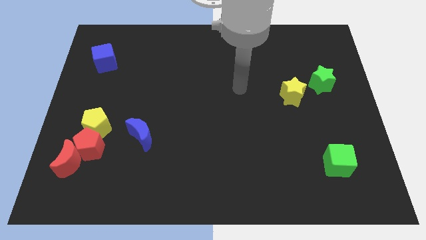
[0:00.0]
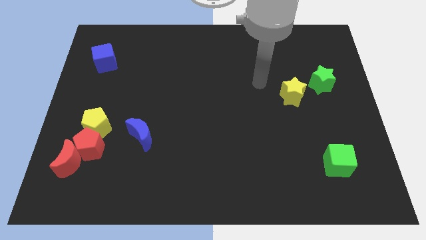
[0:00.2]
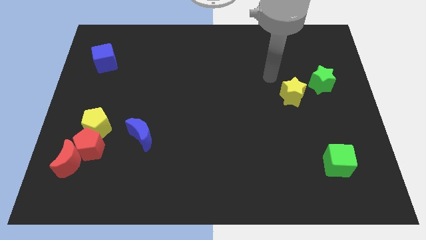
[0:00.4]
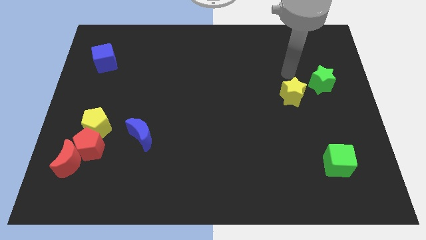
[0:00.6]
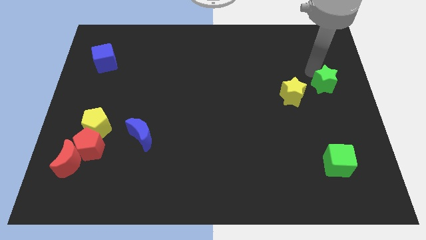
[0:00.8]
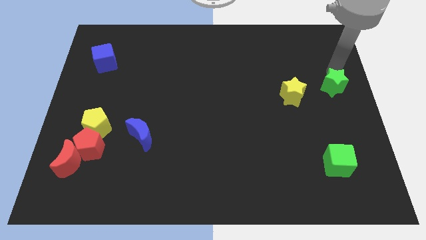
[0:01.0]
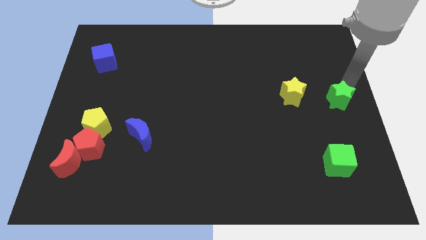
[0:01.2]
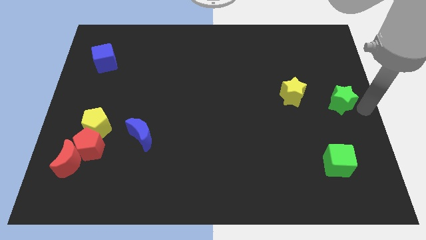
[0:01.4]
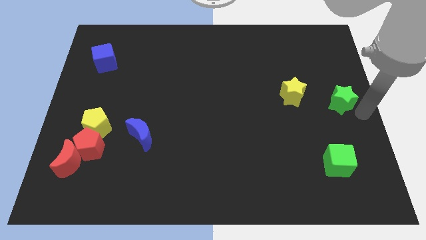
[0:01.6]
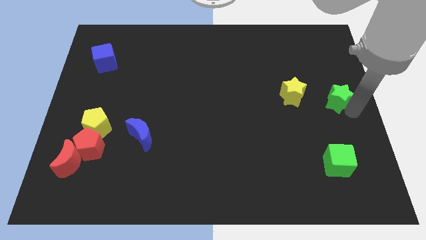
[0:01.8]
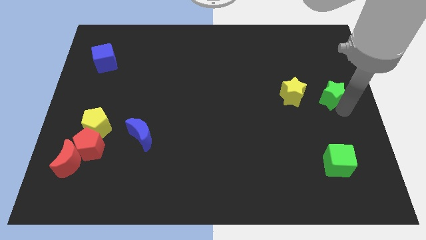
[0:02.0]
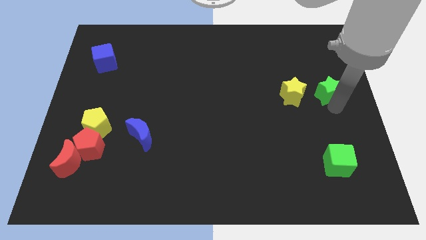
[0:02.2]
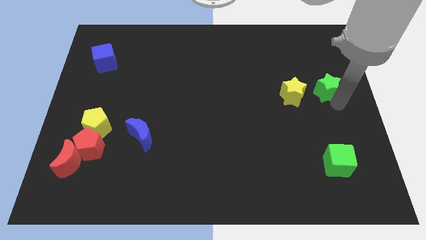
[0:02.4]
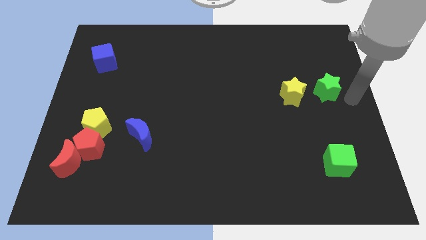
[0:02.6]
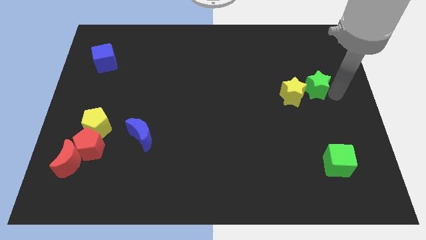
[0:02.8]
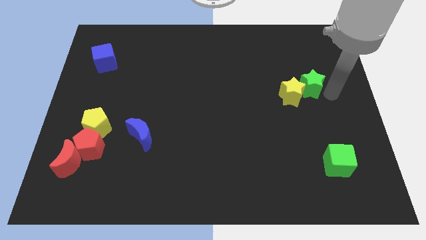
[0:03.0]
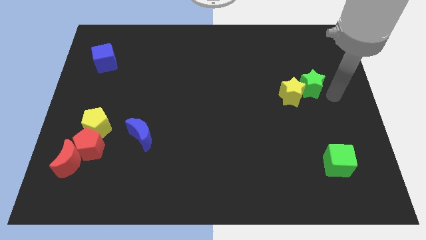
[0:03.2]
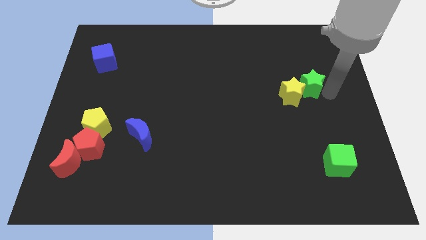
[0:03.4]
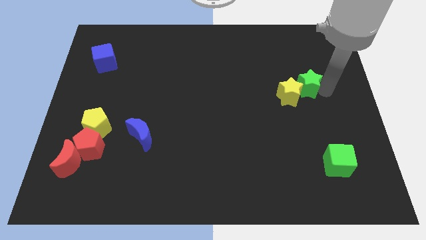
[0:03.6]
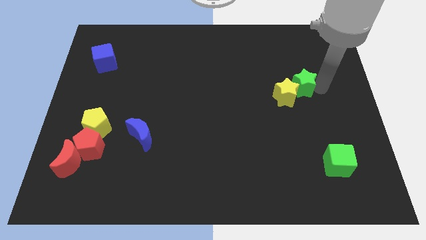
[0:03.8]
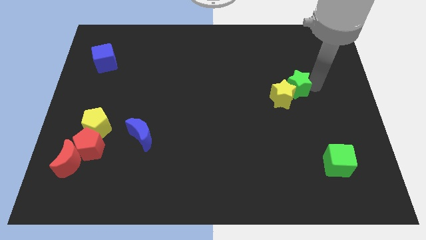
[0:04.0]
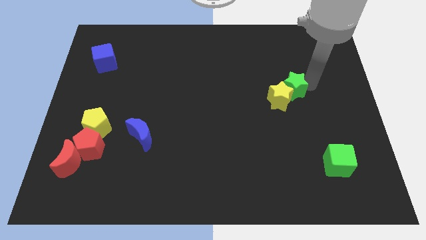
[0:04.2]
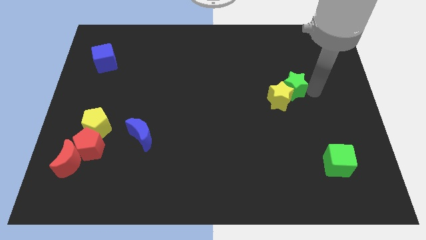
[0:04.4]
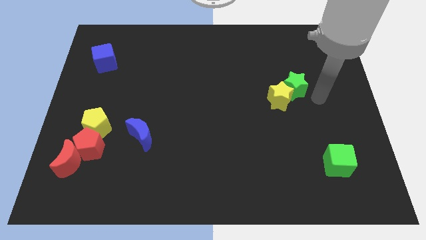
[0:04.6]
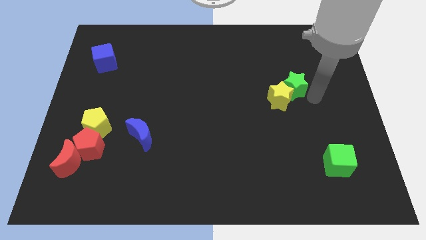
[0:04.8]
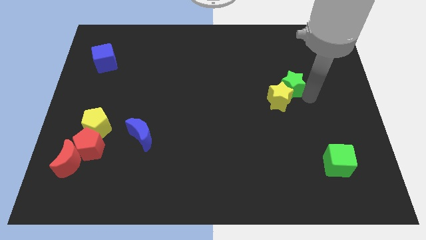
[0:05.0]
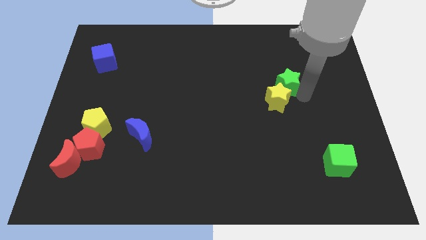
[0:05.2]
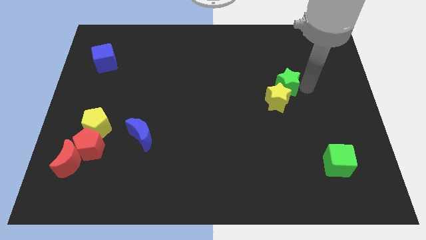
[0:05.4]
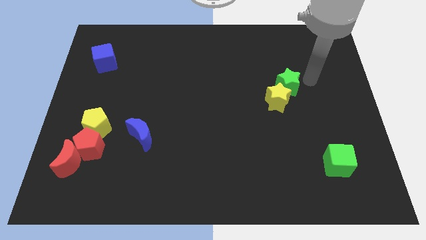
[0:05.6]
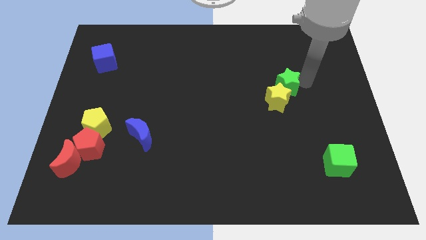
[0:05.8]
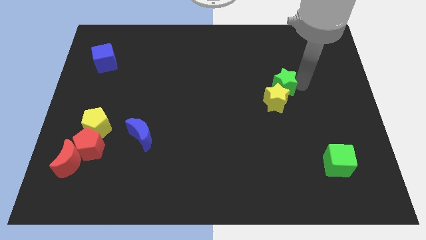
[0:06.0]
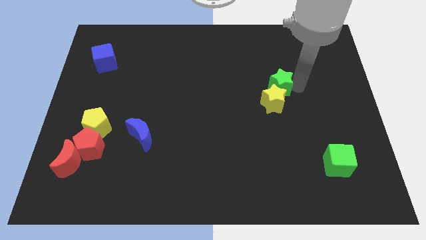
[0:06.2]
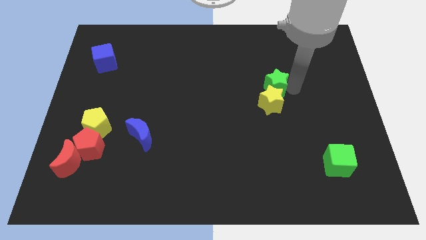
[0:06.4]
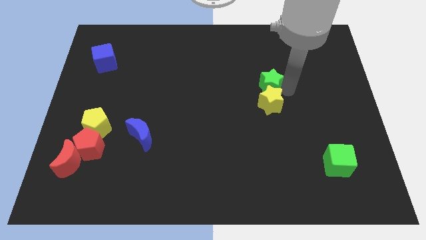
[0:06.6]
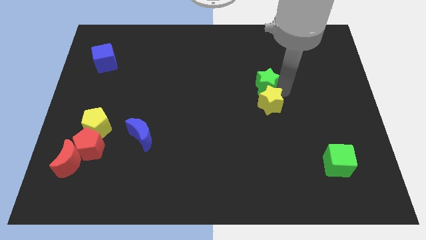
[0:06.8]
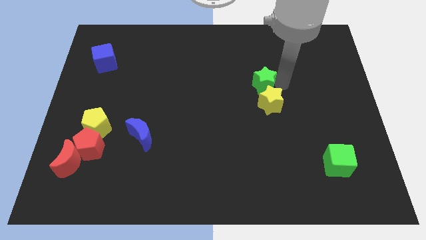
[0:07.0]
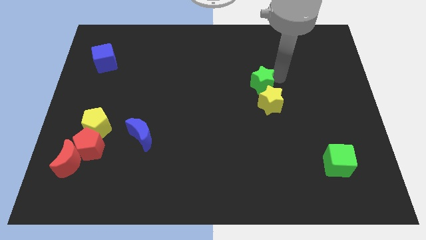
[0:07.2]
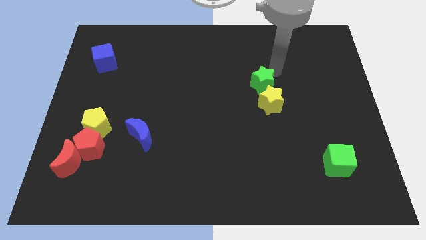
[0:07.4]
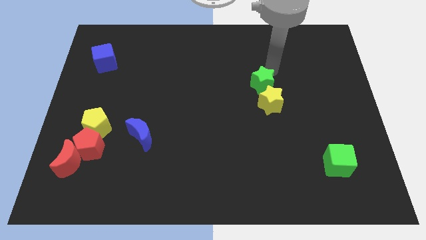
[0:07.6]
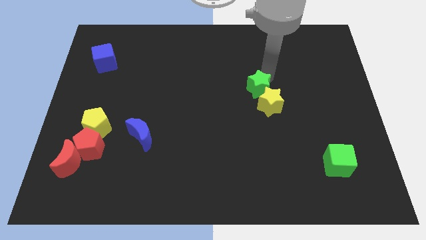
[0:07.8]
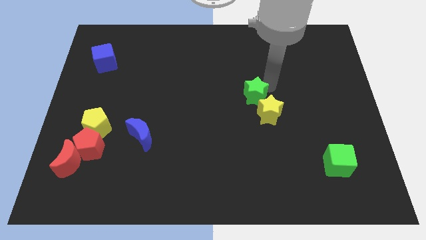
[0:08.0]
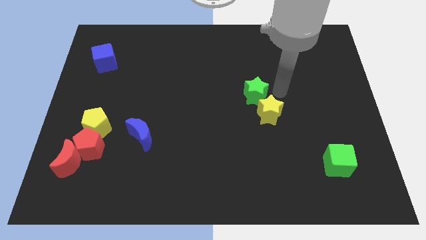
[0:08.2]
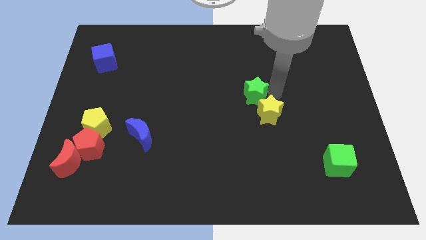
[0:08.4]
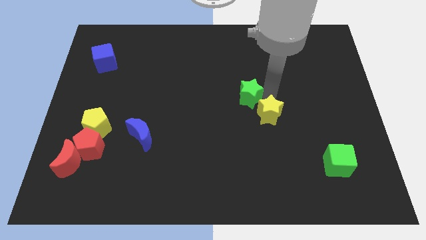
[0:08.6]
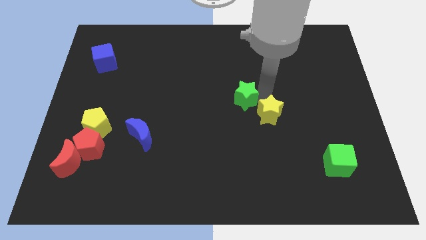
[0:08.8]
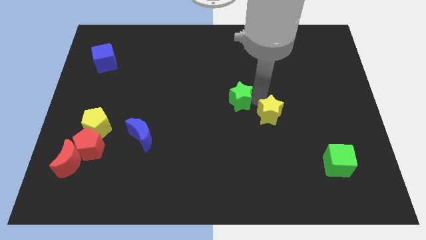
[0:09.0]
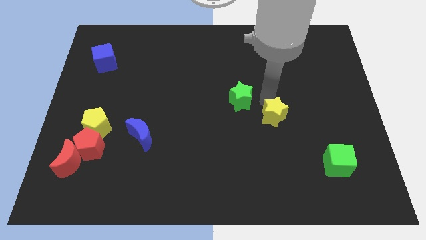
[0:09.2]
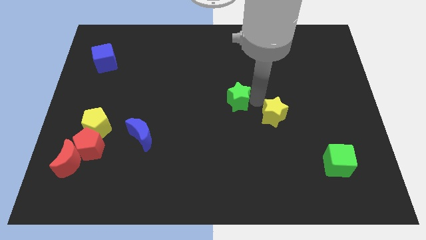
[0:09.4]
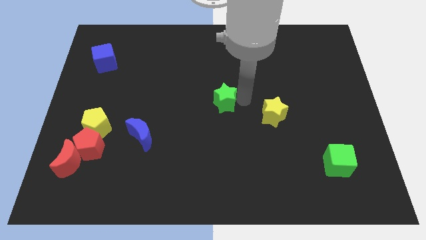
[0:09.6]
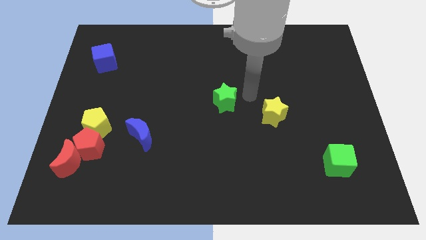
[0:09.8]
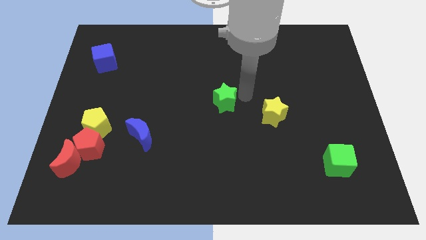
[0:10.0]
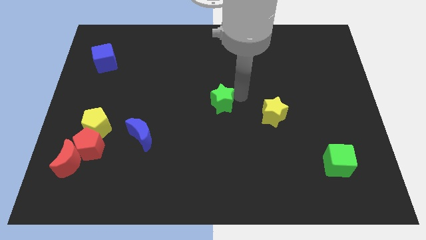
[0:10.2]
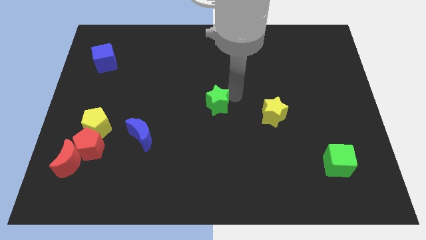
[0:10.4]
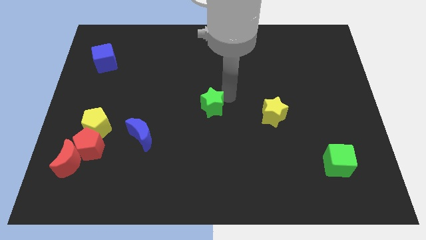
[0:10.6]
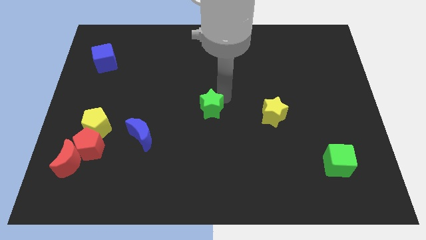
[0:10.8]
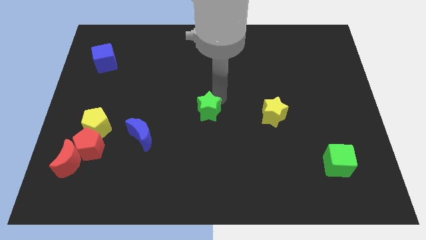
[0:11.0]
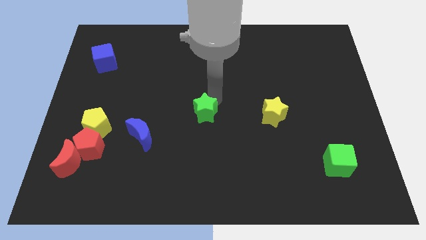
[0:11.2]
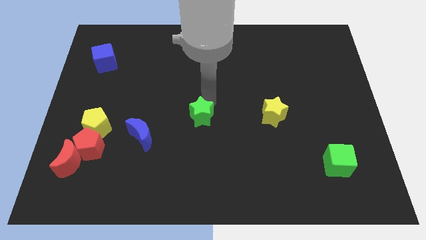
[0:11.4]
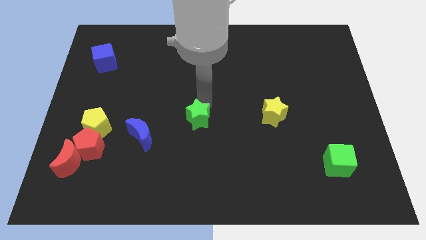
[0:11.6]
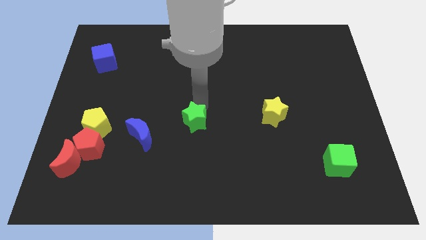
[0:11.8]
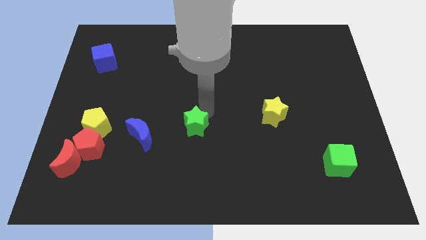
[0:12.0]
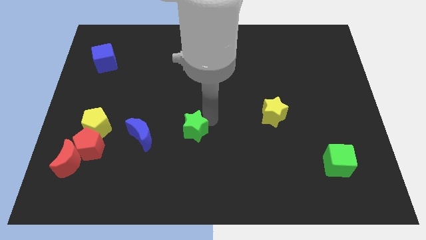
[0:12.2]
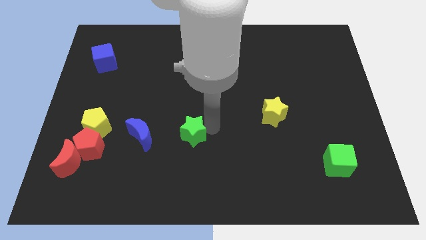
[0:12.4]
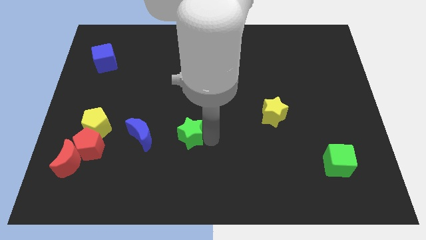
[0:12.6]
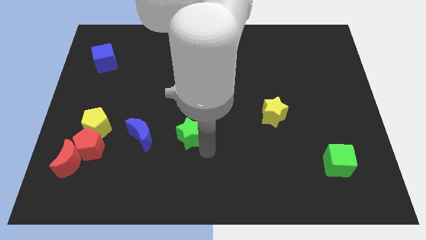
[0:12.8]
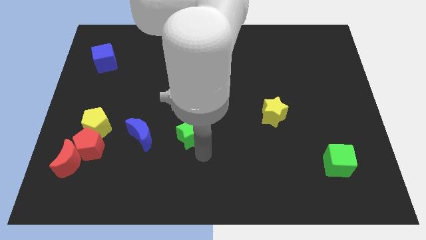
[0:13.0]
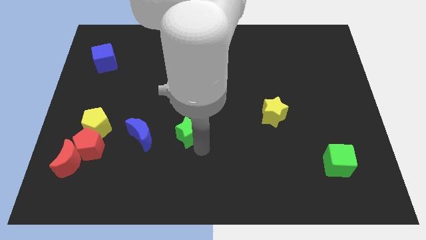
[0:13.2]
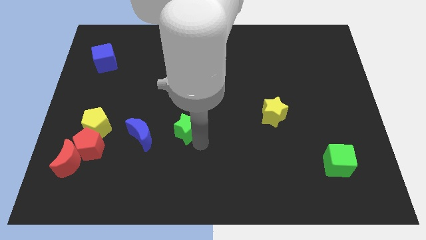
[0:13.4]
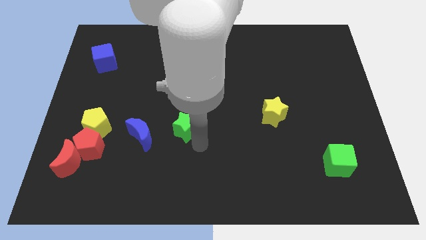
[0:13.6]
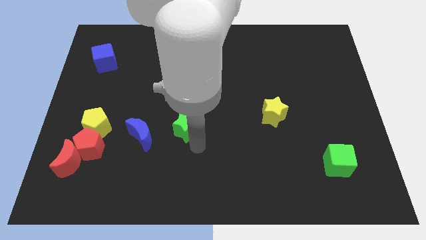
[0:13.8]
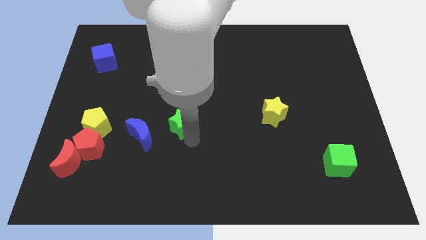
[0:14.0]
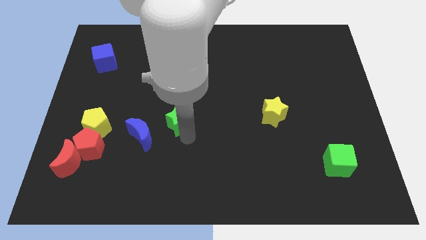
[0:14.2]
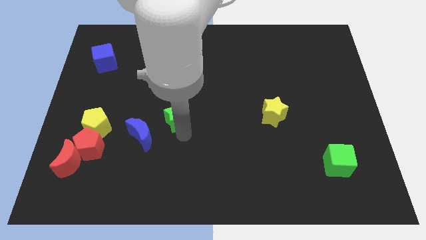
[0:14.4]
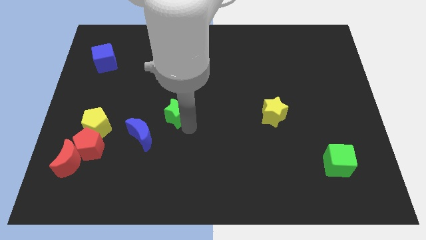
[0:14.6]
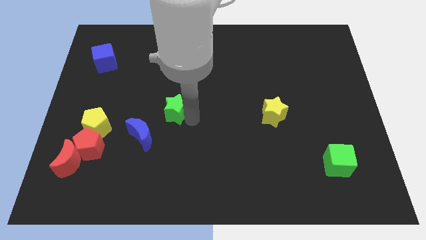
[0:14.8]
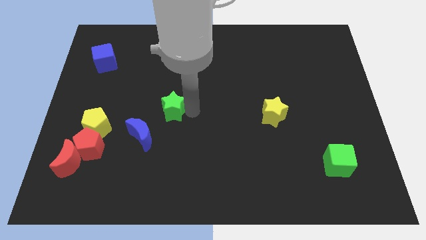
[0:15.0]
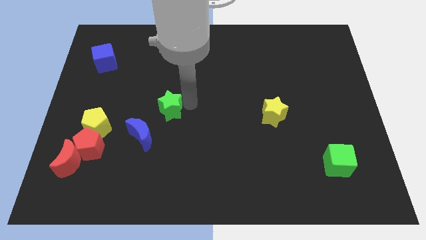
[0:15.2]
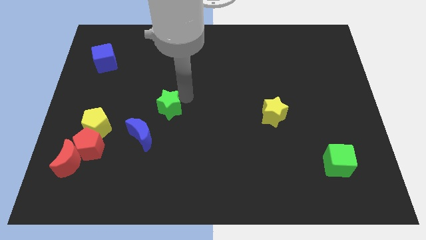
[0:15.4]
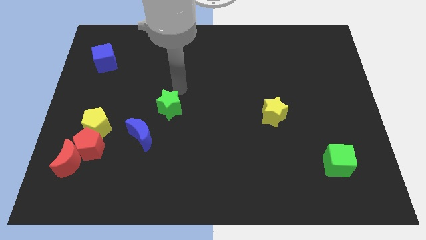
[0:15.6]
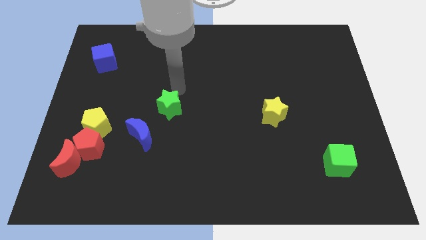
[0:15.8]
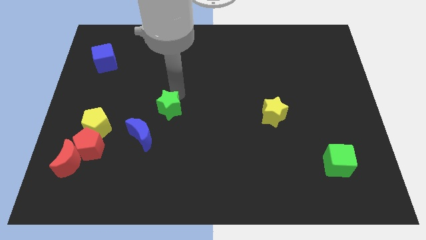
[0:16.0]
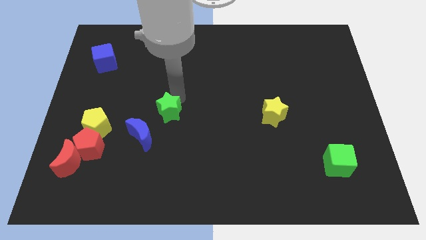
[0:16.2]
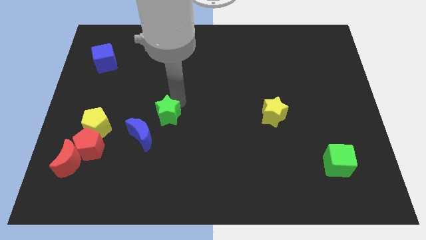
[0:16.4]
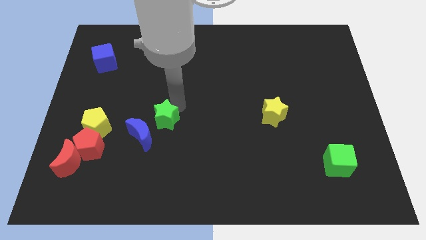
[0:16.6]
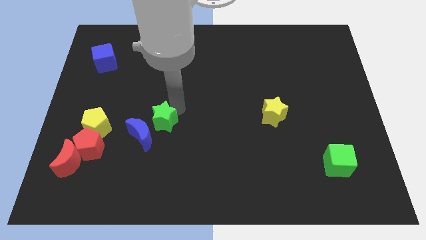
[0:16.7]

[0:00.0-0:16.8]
slide the green star to the blue moon
